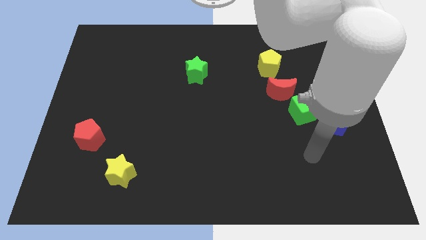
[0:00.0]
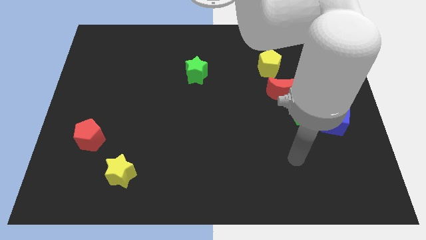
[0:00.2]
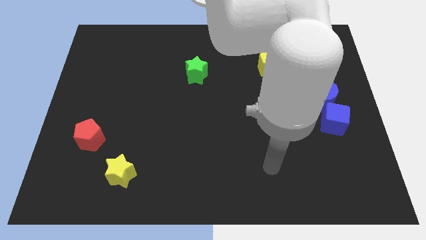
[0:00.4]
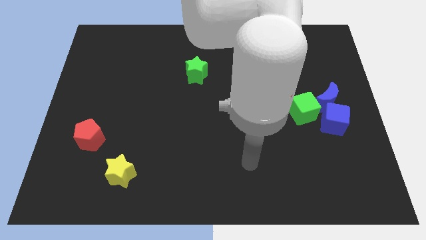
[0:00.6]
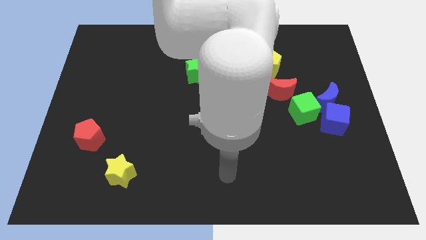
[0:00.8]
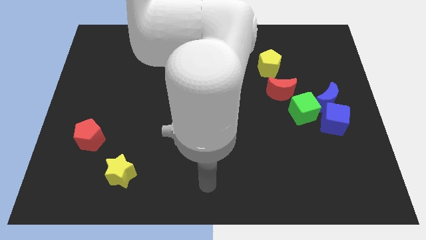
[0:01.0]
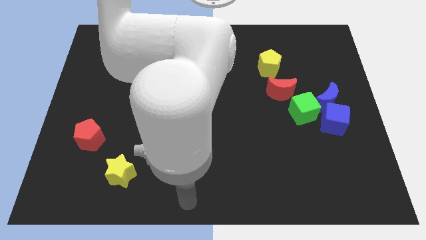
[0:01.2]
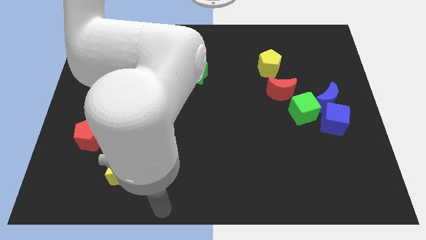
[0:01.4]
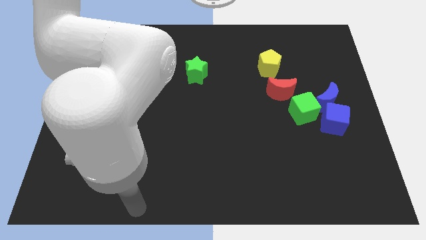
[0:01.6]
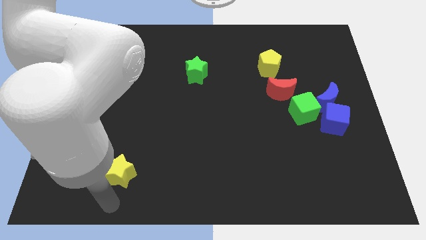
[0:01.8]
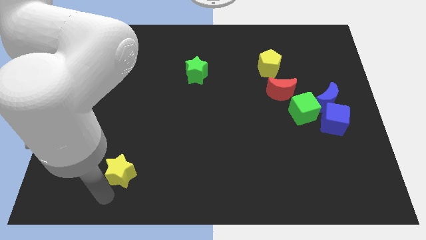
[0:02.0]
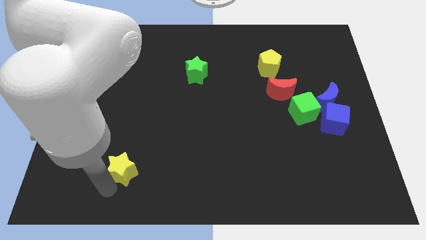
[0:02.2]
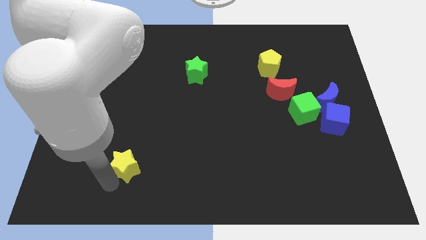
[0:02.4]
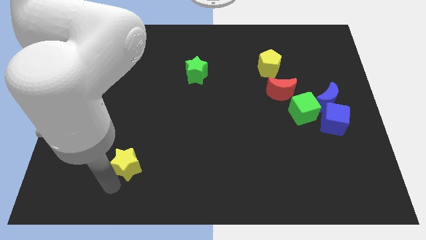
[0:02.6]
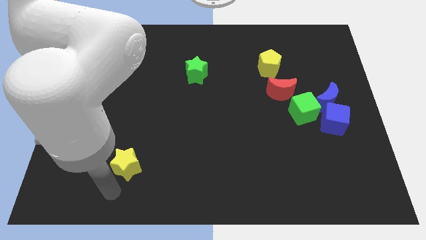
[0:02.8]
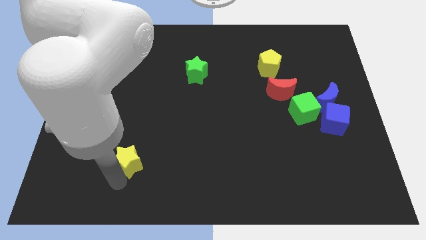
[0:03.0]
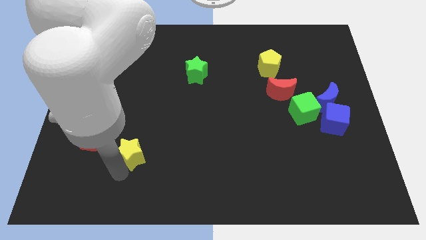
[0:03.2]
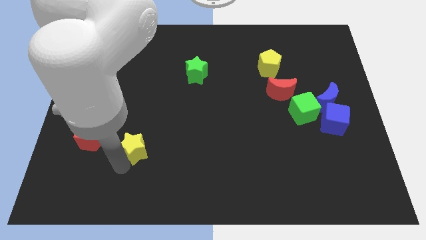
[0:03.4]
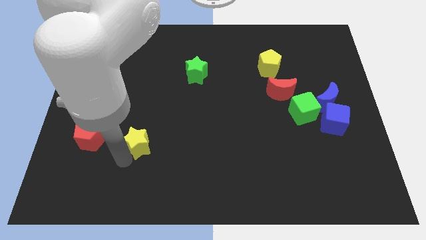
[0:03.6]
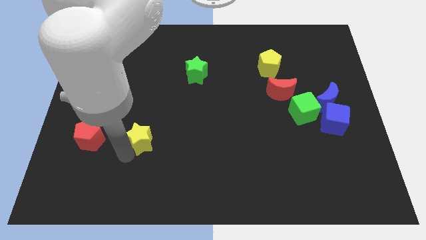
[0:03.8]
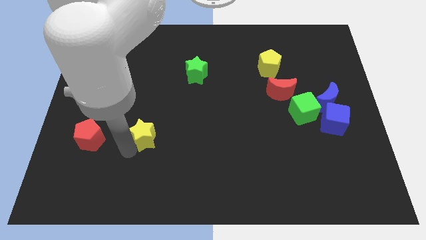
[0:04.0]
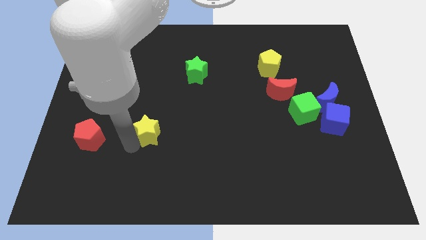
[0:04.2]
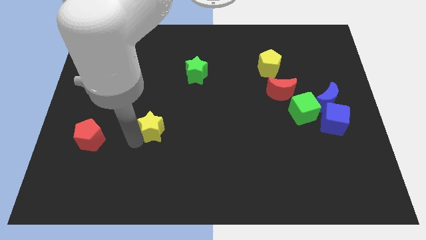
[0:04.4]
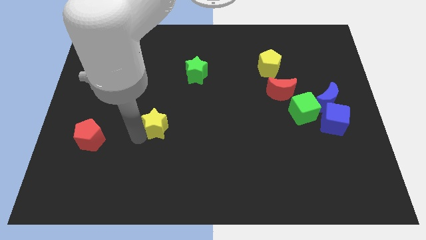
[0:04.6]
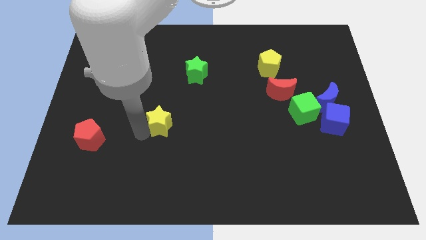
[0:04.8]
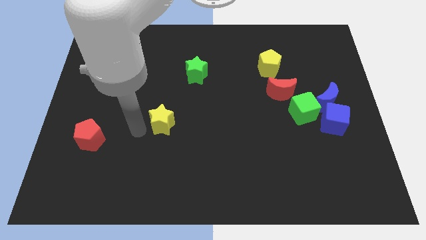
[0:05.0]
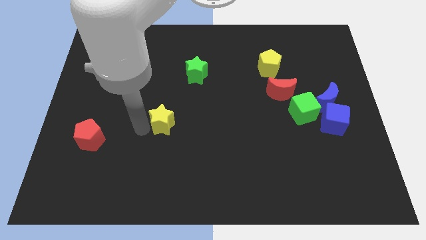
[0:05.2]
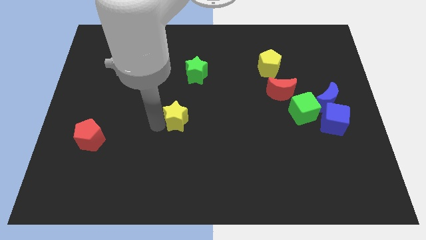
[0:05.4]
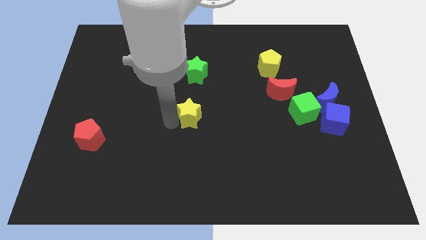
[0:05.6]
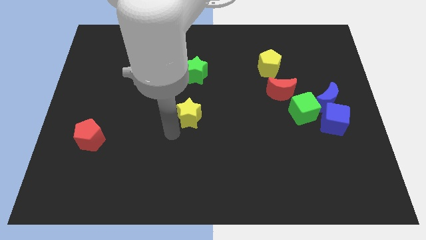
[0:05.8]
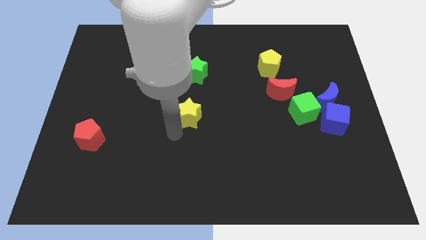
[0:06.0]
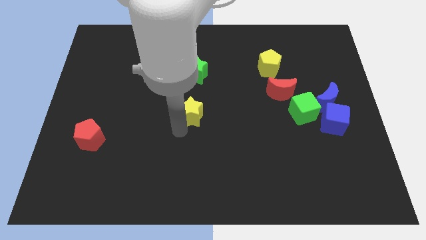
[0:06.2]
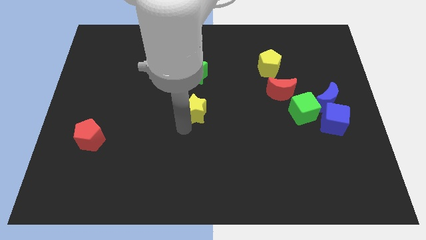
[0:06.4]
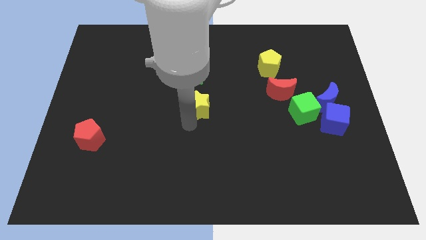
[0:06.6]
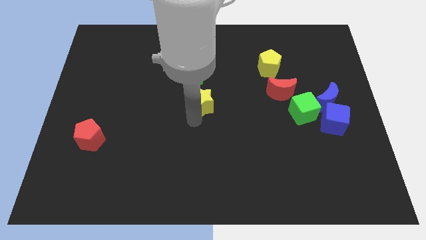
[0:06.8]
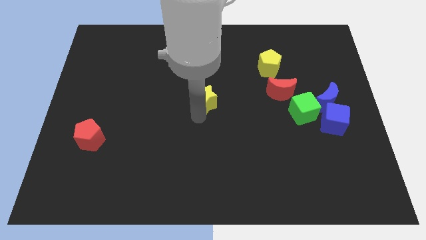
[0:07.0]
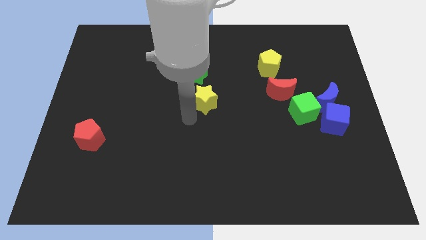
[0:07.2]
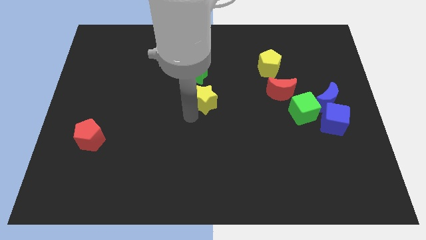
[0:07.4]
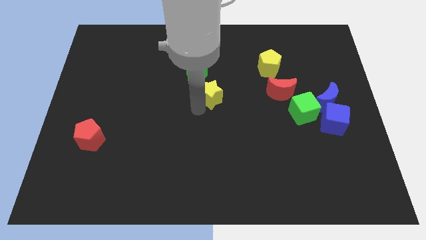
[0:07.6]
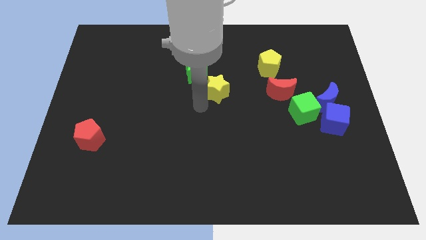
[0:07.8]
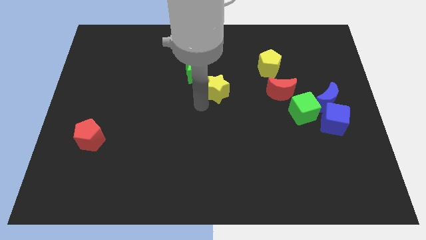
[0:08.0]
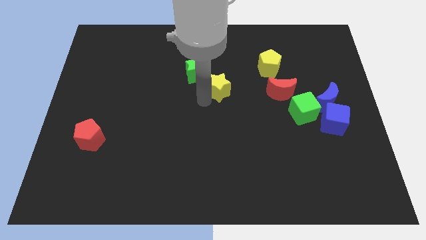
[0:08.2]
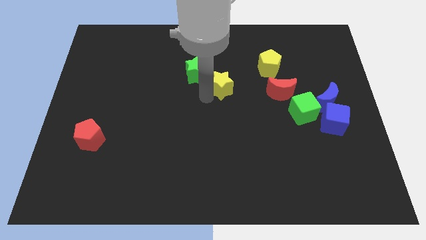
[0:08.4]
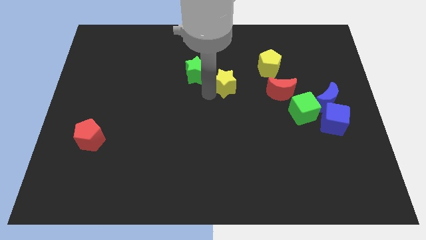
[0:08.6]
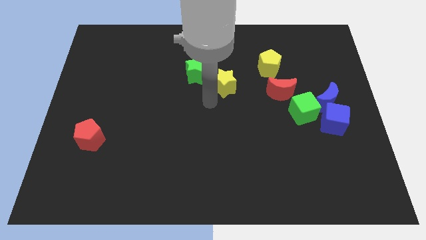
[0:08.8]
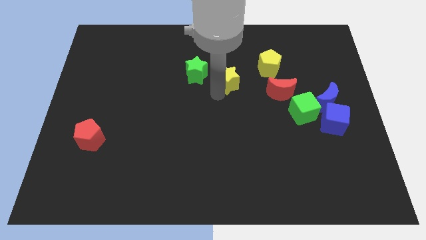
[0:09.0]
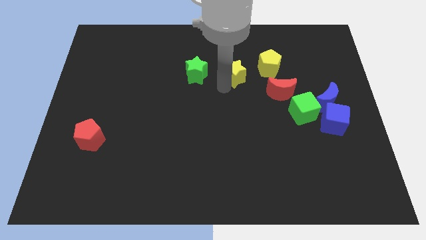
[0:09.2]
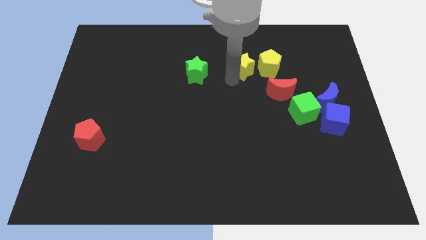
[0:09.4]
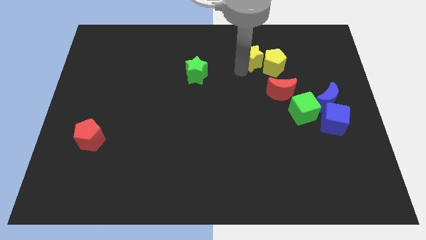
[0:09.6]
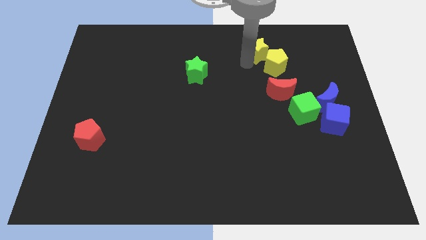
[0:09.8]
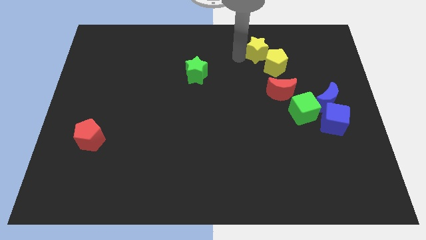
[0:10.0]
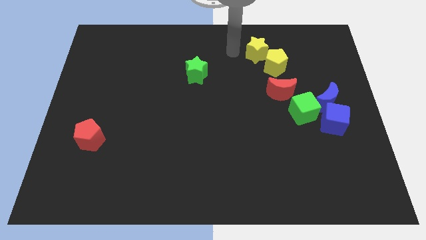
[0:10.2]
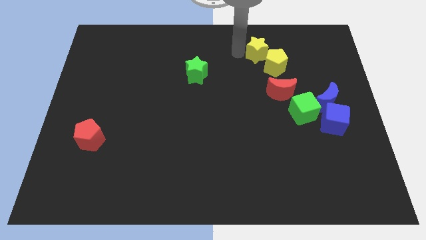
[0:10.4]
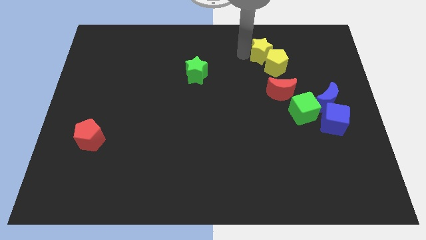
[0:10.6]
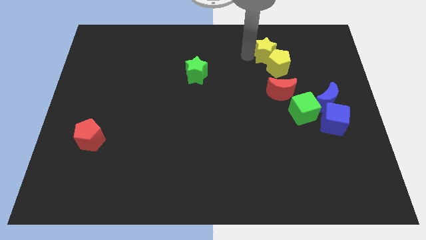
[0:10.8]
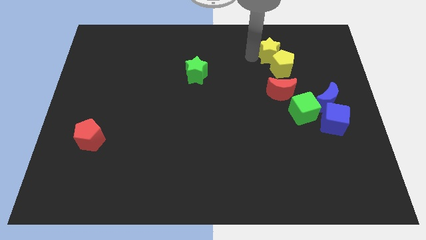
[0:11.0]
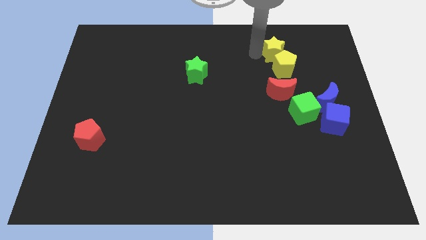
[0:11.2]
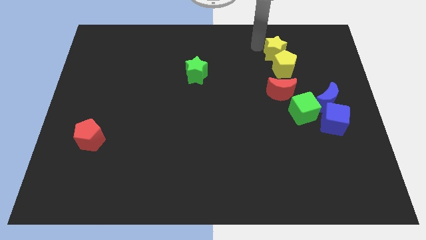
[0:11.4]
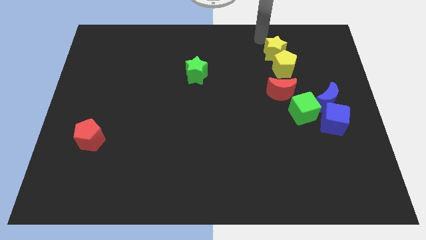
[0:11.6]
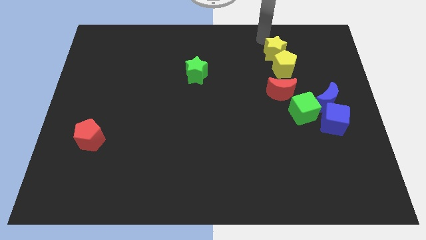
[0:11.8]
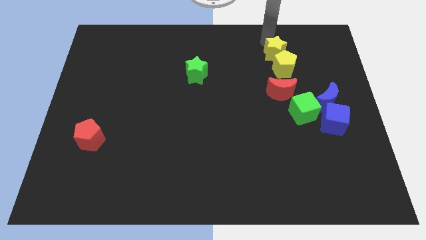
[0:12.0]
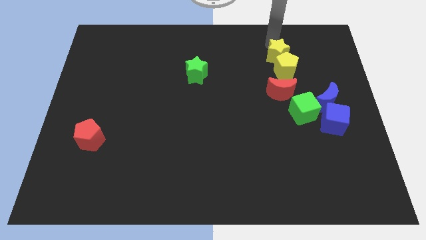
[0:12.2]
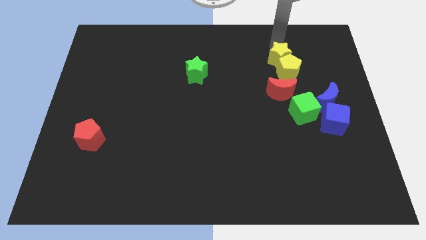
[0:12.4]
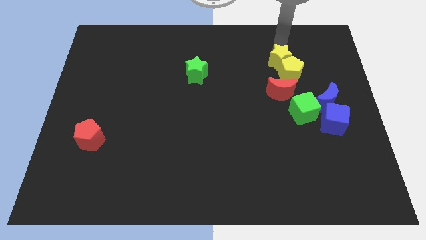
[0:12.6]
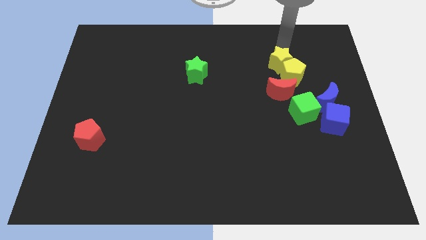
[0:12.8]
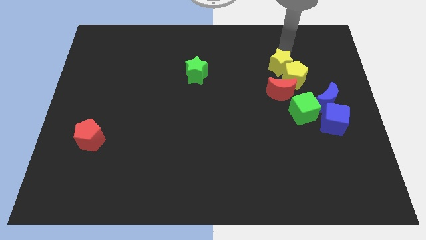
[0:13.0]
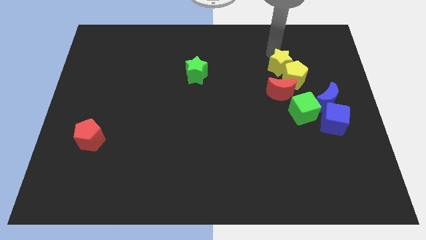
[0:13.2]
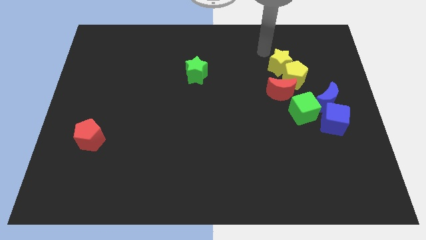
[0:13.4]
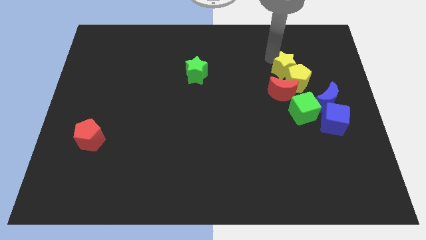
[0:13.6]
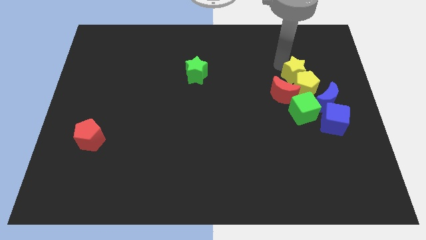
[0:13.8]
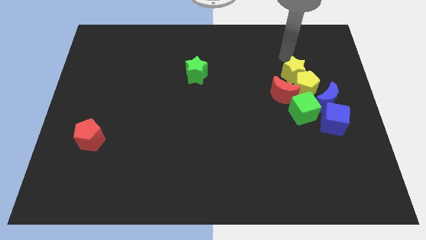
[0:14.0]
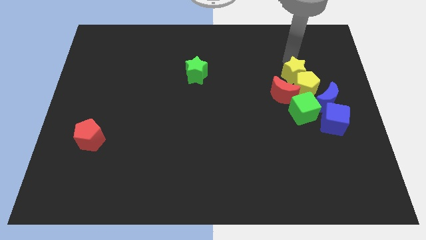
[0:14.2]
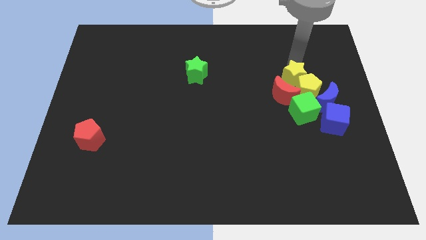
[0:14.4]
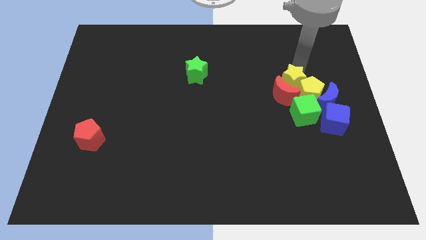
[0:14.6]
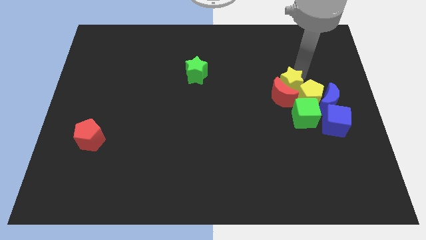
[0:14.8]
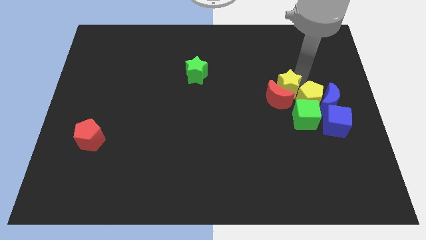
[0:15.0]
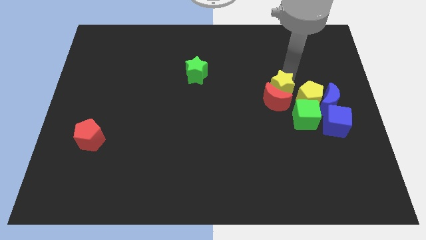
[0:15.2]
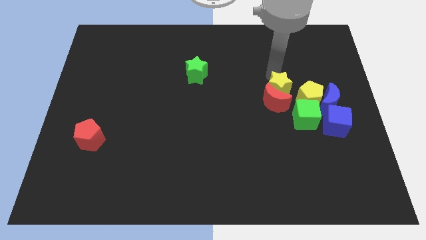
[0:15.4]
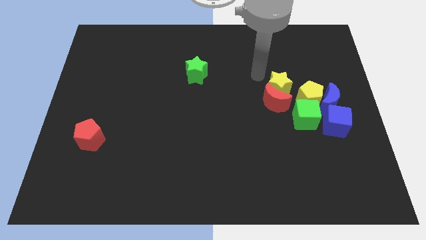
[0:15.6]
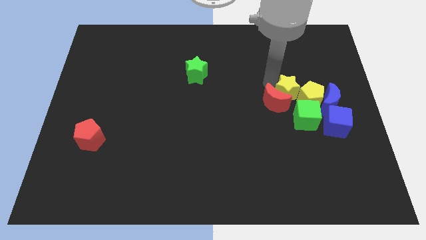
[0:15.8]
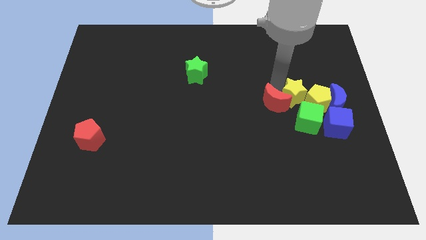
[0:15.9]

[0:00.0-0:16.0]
push the yellow star to the top left side of the blue cube
